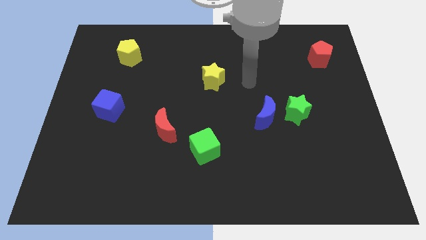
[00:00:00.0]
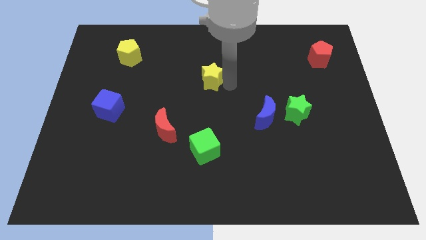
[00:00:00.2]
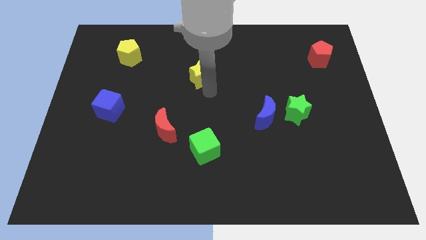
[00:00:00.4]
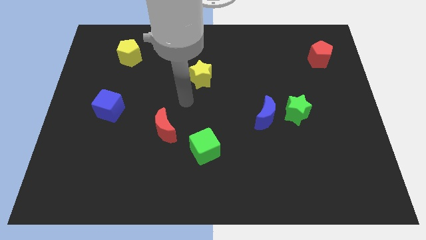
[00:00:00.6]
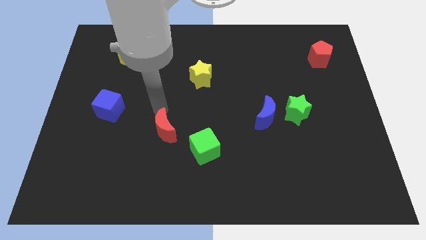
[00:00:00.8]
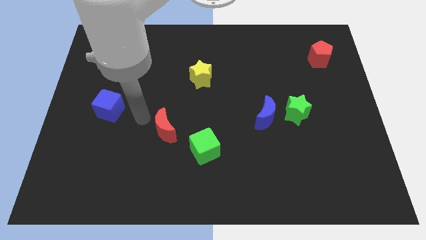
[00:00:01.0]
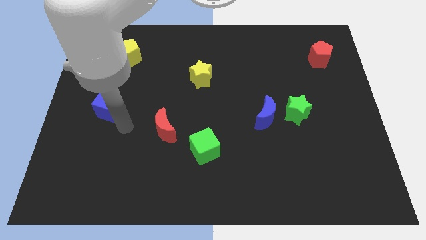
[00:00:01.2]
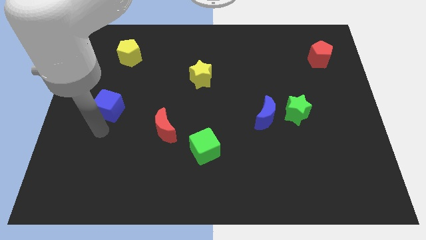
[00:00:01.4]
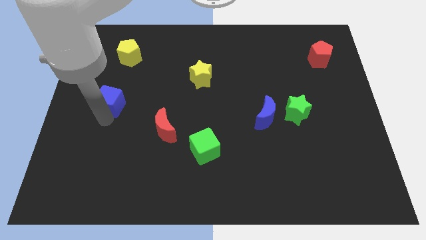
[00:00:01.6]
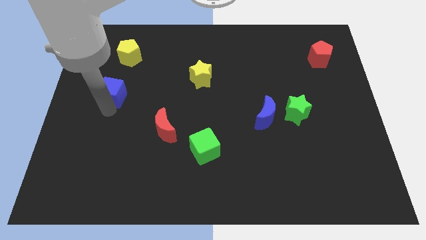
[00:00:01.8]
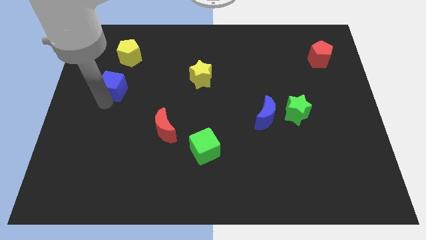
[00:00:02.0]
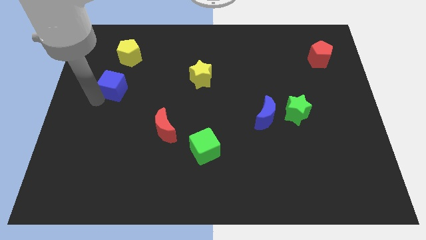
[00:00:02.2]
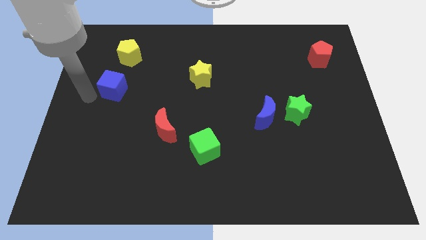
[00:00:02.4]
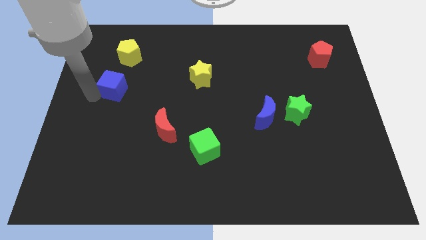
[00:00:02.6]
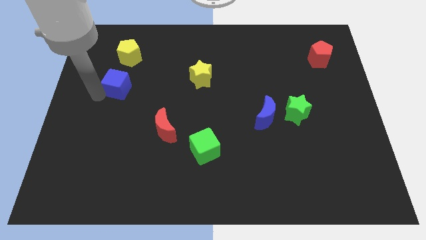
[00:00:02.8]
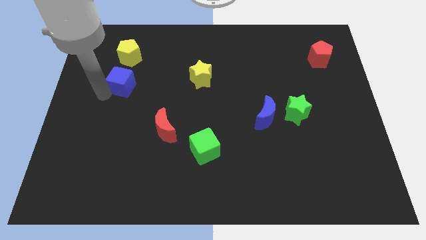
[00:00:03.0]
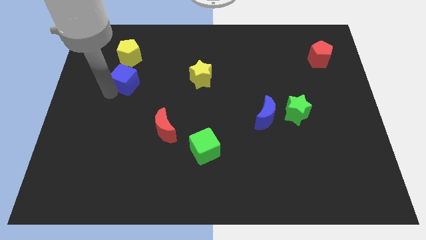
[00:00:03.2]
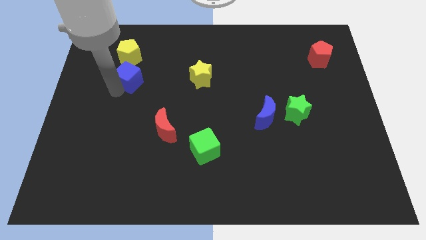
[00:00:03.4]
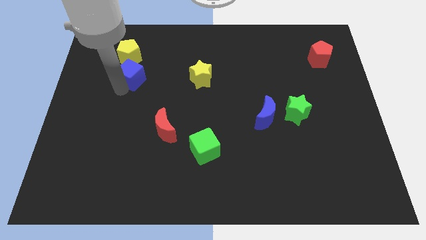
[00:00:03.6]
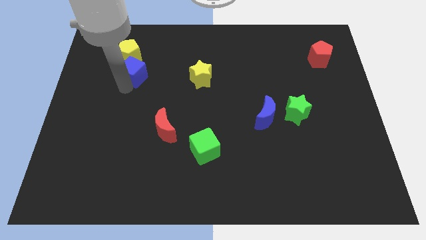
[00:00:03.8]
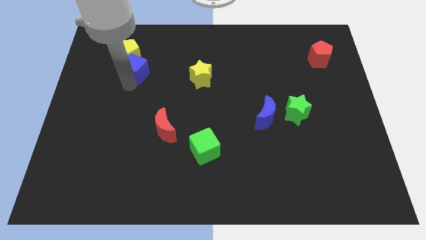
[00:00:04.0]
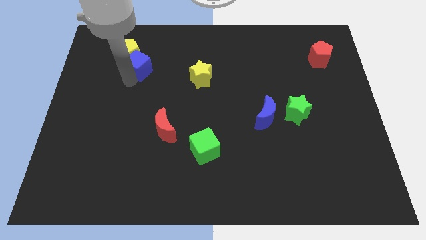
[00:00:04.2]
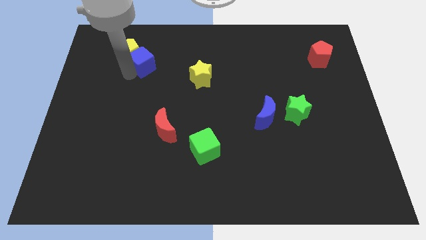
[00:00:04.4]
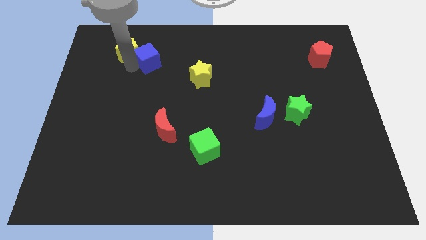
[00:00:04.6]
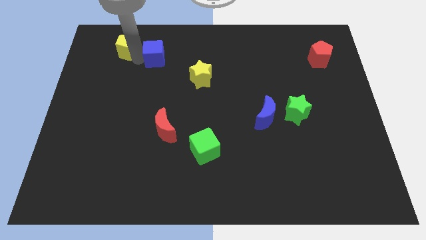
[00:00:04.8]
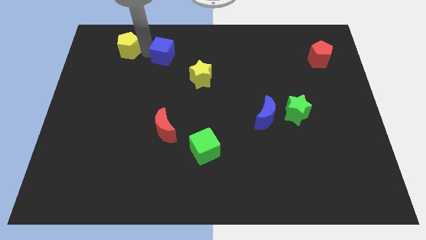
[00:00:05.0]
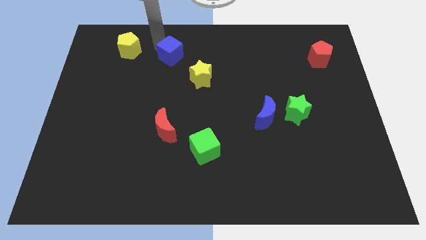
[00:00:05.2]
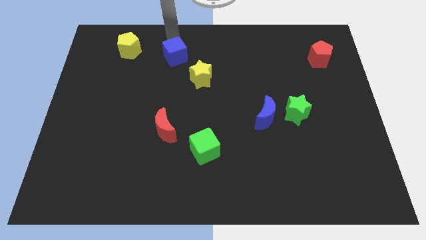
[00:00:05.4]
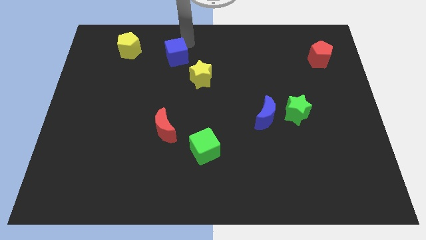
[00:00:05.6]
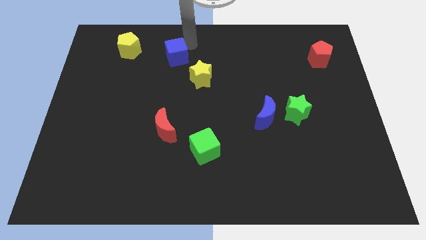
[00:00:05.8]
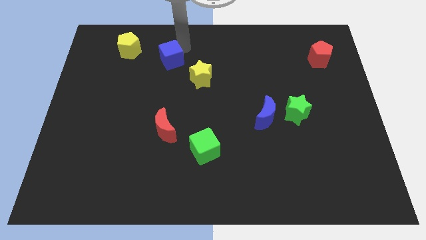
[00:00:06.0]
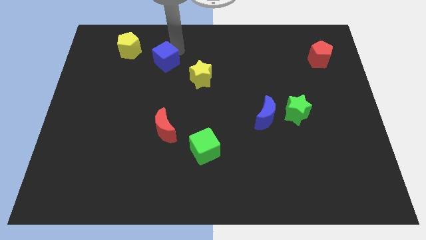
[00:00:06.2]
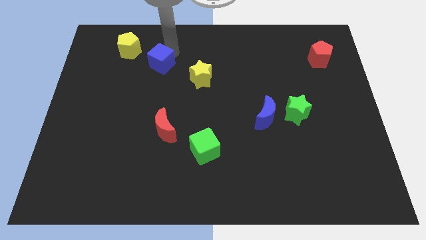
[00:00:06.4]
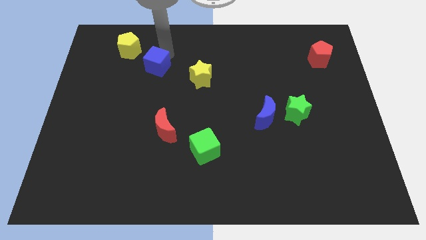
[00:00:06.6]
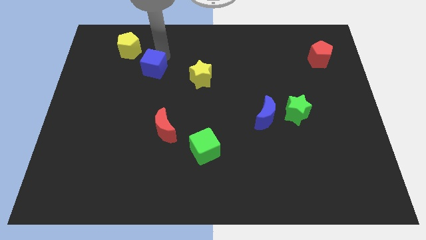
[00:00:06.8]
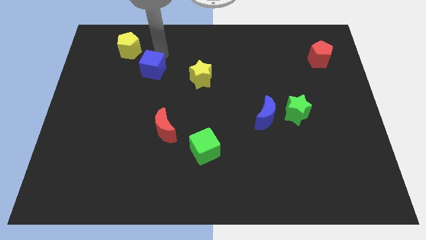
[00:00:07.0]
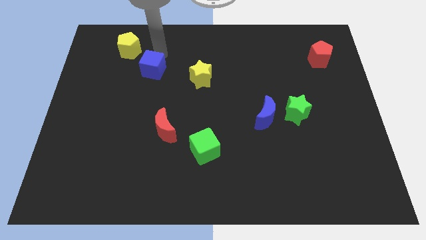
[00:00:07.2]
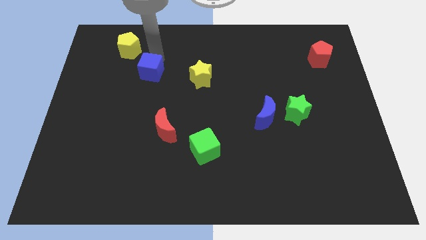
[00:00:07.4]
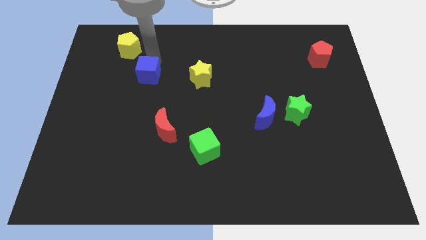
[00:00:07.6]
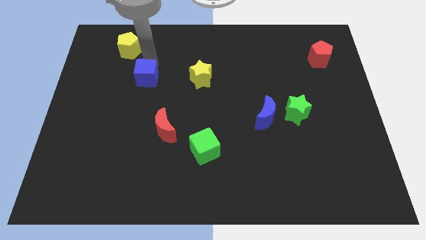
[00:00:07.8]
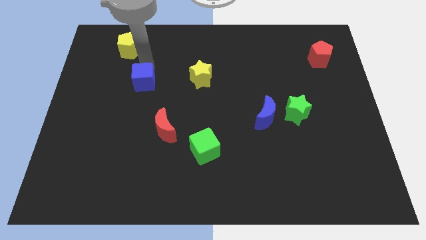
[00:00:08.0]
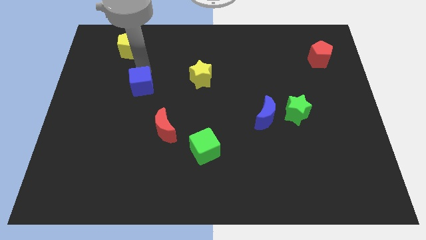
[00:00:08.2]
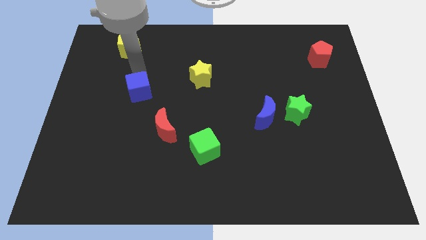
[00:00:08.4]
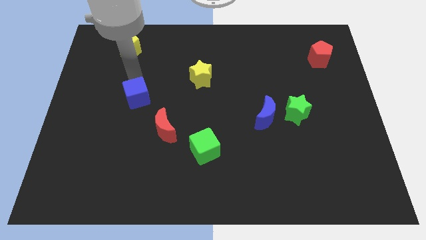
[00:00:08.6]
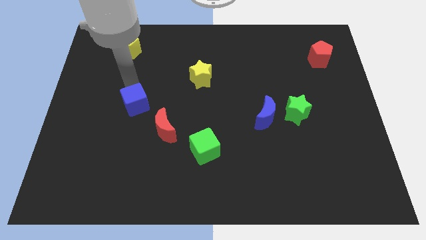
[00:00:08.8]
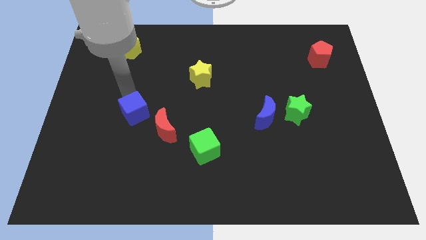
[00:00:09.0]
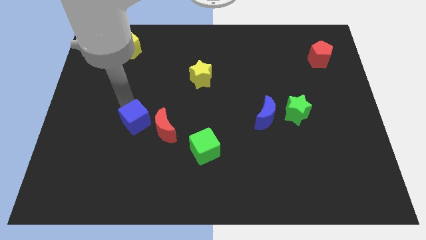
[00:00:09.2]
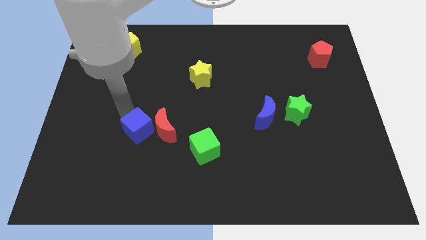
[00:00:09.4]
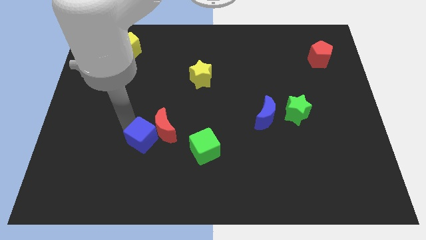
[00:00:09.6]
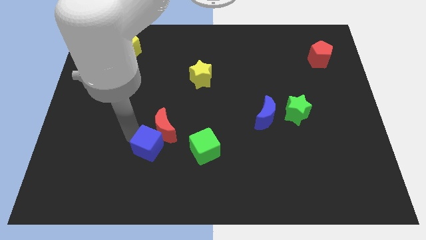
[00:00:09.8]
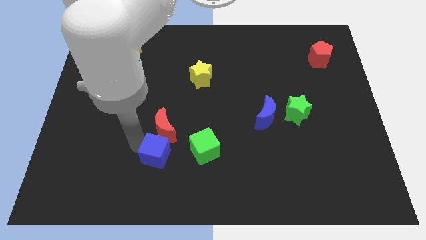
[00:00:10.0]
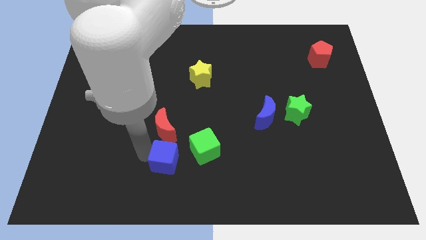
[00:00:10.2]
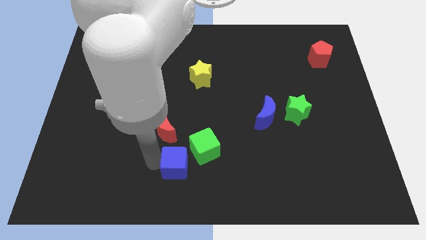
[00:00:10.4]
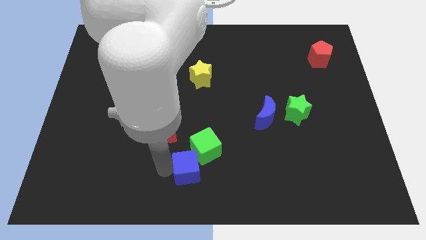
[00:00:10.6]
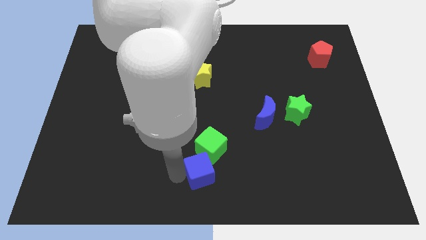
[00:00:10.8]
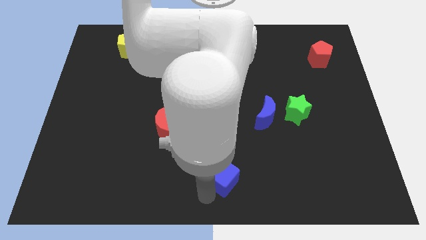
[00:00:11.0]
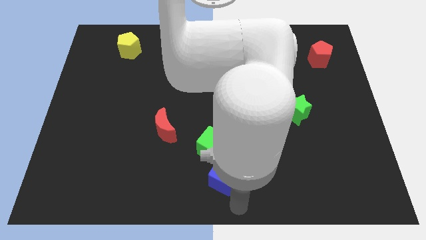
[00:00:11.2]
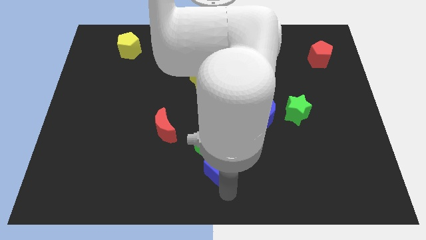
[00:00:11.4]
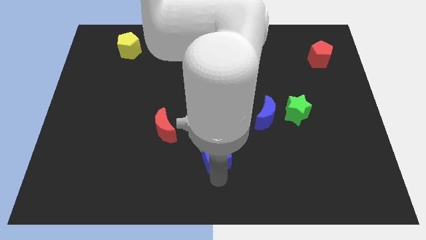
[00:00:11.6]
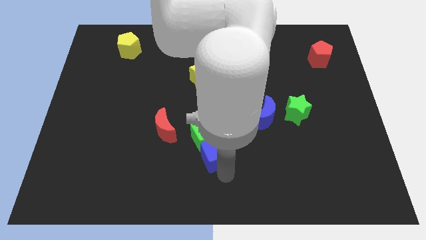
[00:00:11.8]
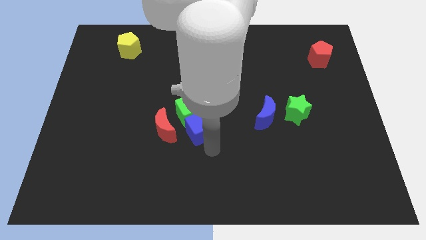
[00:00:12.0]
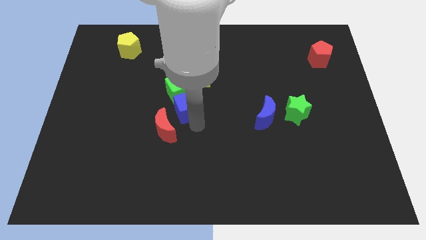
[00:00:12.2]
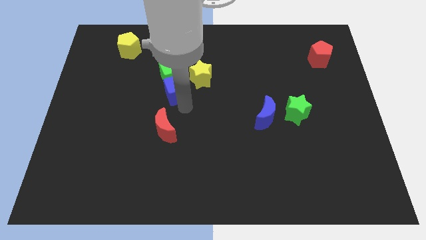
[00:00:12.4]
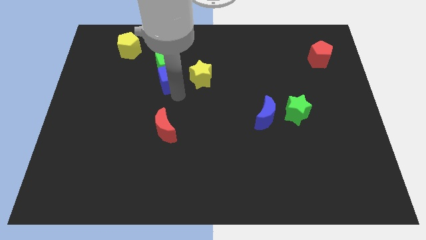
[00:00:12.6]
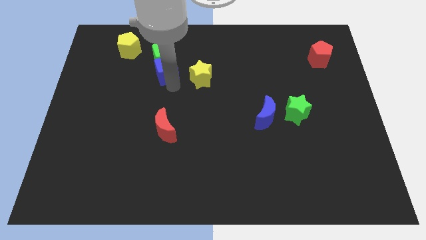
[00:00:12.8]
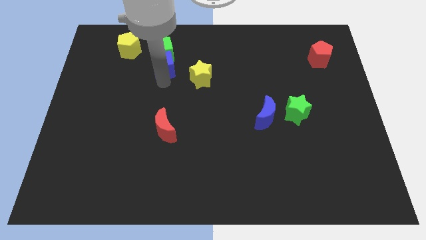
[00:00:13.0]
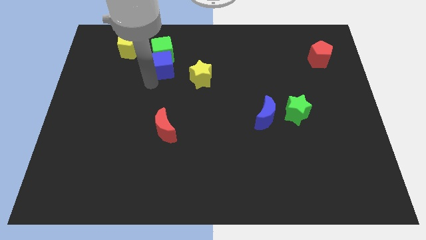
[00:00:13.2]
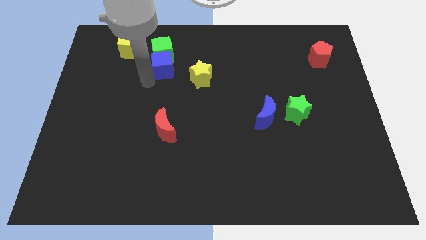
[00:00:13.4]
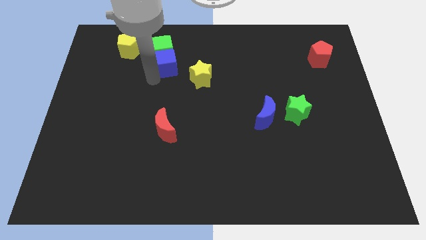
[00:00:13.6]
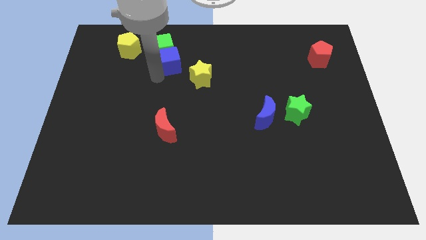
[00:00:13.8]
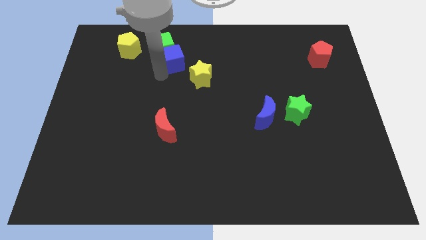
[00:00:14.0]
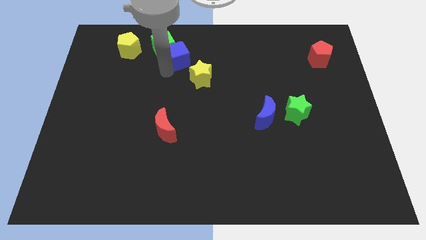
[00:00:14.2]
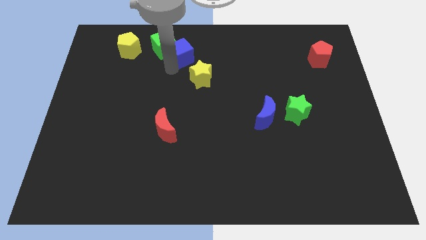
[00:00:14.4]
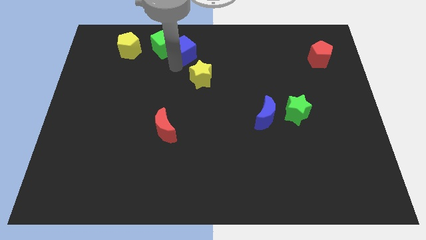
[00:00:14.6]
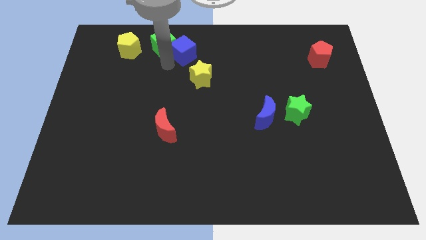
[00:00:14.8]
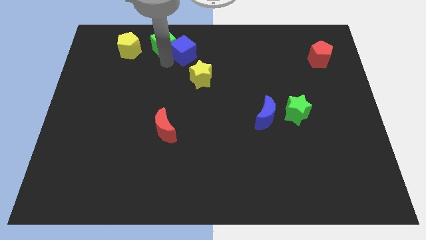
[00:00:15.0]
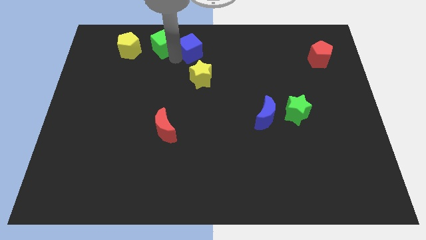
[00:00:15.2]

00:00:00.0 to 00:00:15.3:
move the blue cube to the top

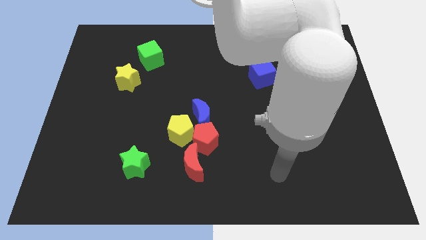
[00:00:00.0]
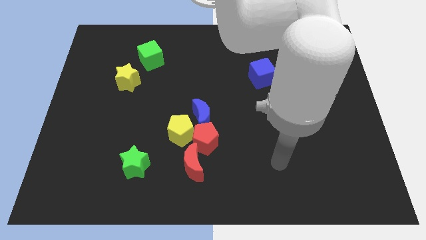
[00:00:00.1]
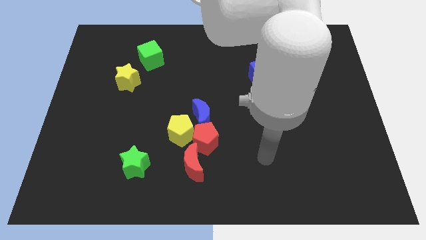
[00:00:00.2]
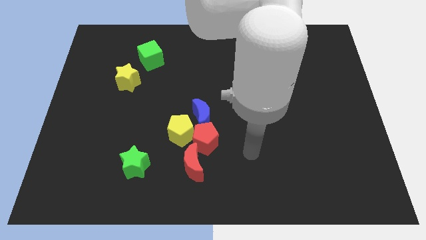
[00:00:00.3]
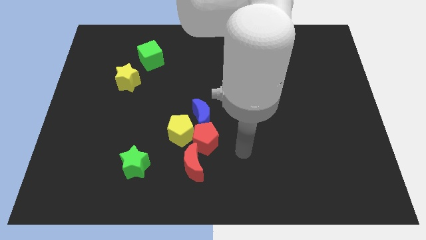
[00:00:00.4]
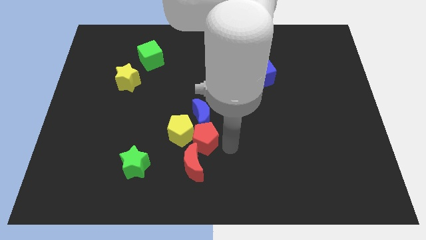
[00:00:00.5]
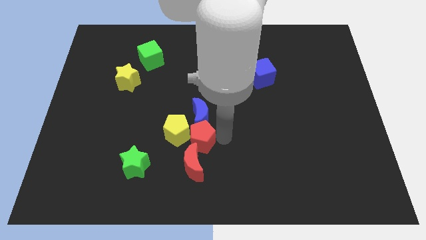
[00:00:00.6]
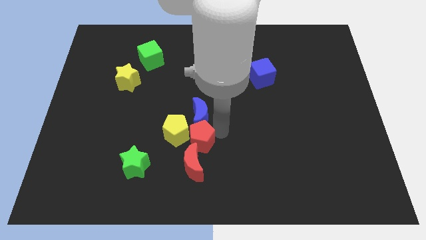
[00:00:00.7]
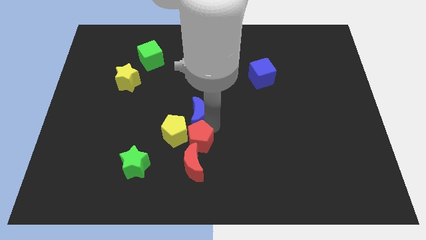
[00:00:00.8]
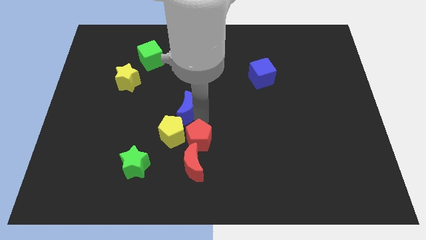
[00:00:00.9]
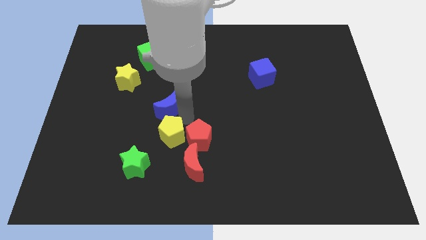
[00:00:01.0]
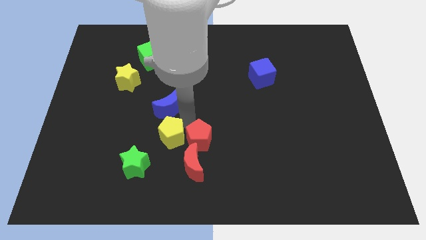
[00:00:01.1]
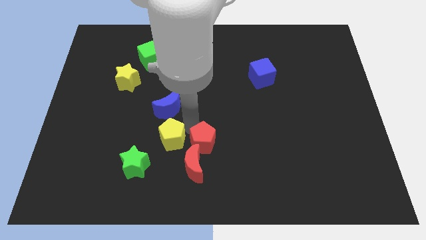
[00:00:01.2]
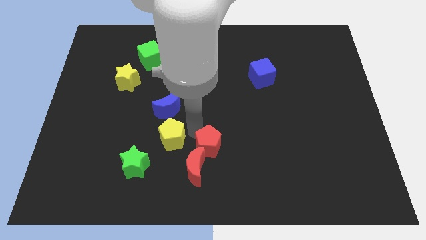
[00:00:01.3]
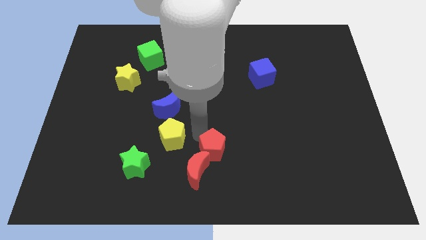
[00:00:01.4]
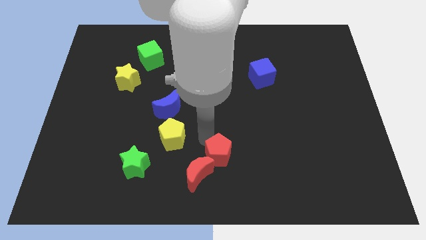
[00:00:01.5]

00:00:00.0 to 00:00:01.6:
slide the red pentagon to the bottom side
